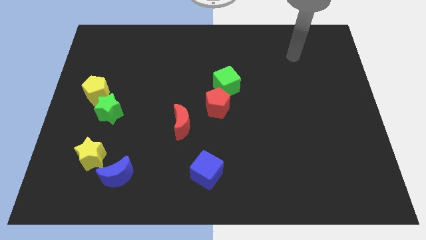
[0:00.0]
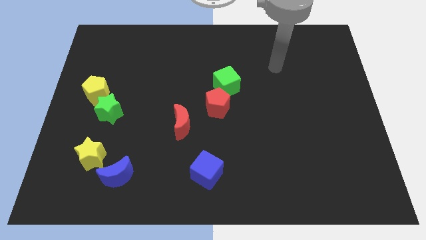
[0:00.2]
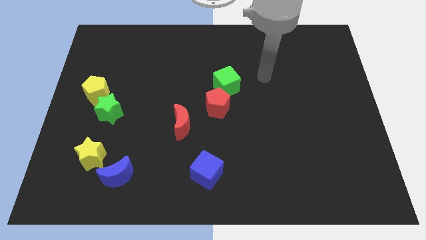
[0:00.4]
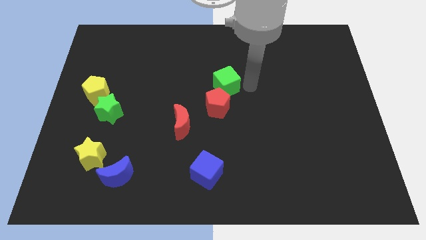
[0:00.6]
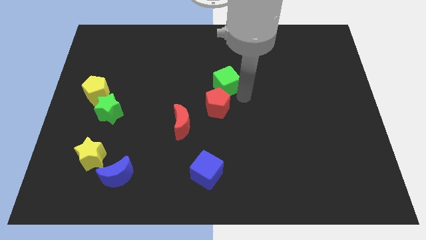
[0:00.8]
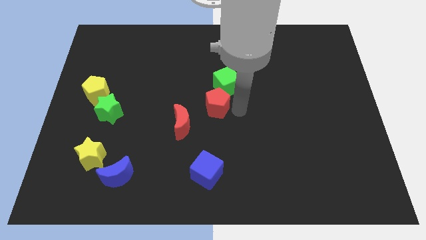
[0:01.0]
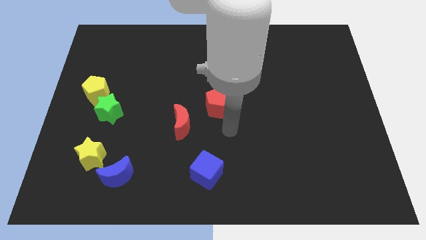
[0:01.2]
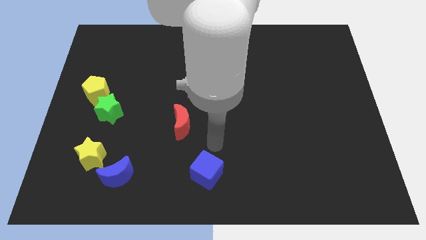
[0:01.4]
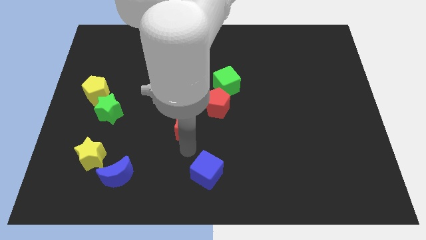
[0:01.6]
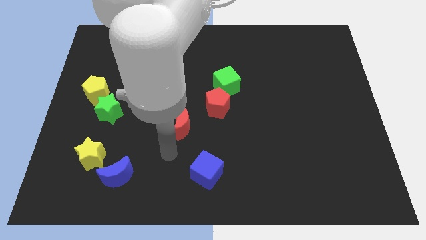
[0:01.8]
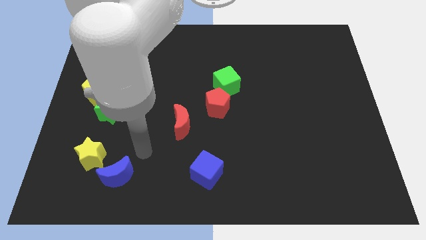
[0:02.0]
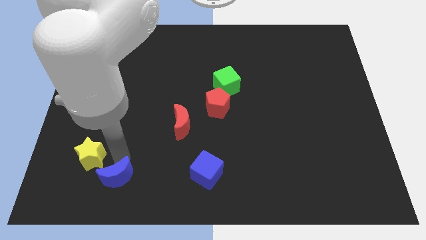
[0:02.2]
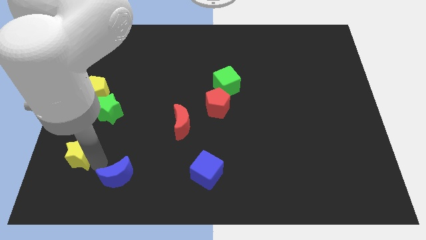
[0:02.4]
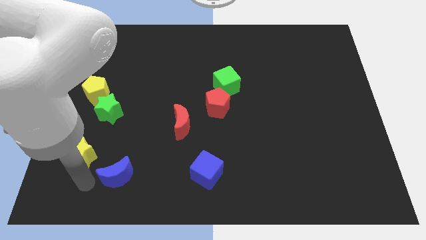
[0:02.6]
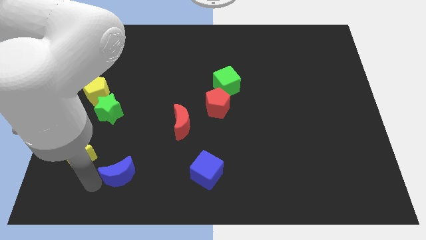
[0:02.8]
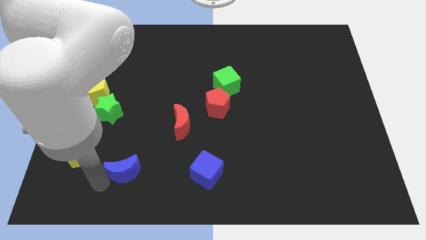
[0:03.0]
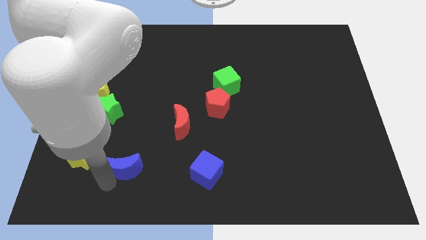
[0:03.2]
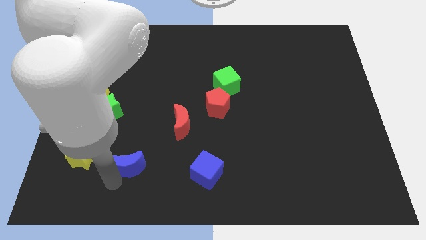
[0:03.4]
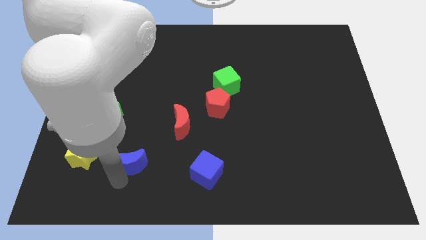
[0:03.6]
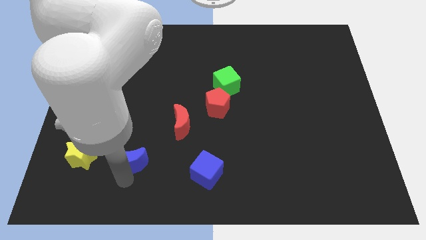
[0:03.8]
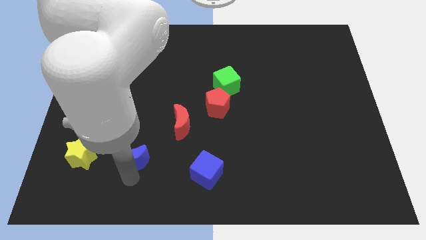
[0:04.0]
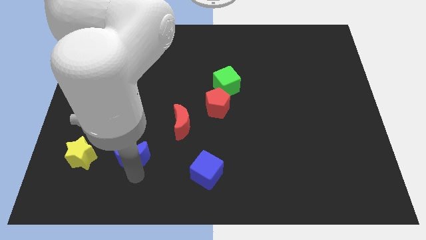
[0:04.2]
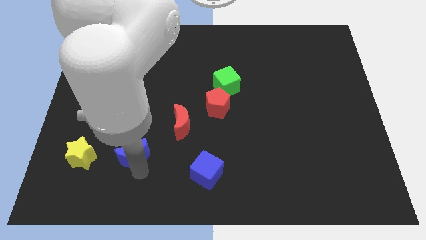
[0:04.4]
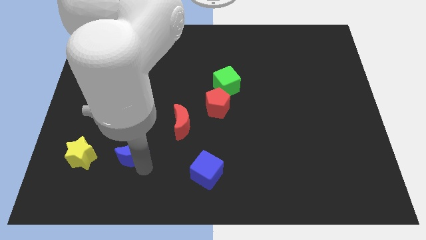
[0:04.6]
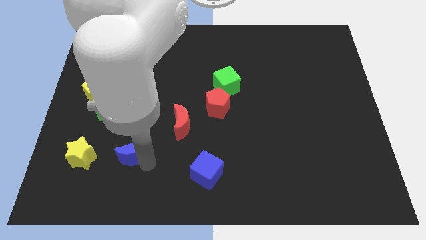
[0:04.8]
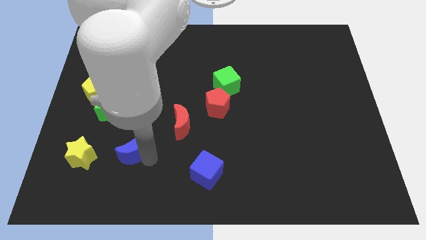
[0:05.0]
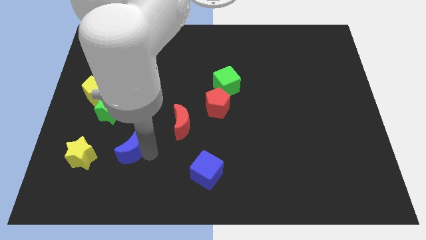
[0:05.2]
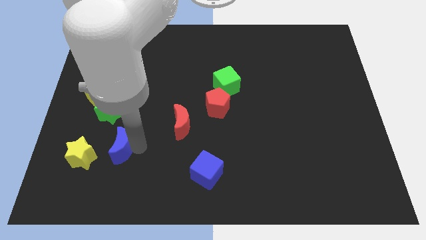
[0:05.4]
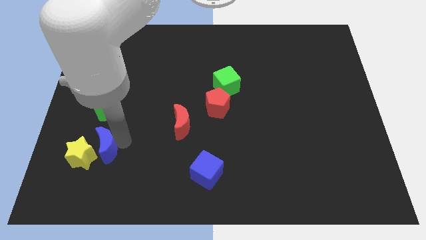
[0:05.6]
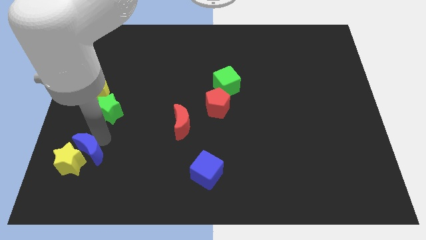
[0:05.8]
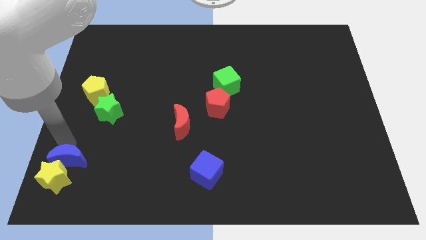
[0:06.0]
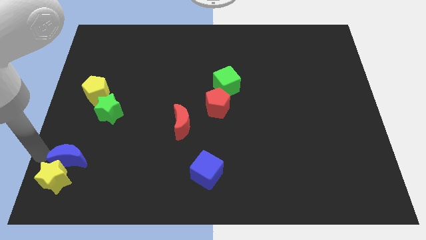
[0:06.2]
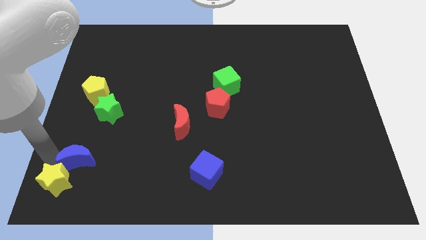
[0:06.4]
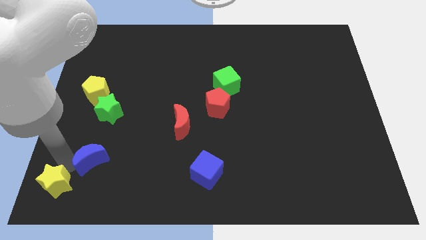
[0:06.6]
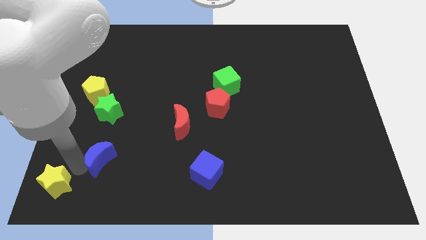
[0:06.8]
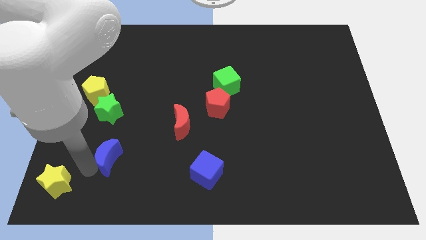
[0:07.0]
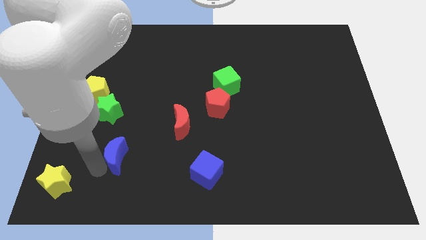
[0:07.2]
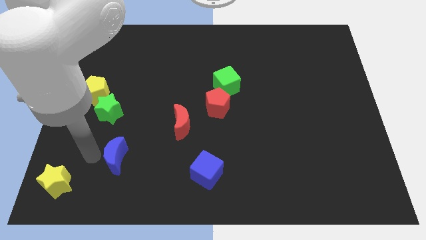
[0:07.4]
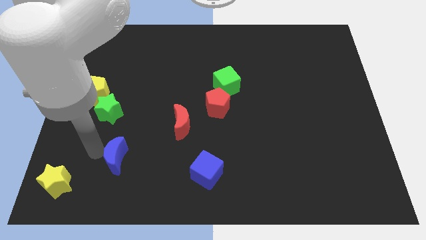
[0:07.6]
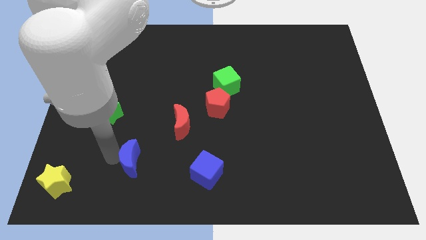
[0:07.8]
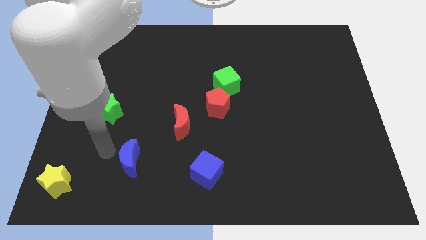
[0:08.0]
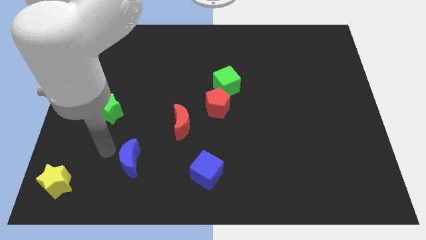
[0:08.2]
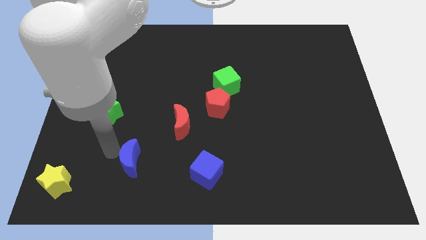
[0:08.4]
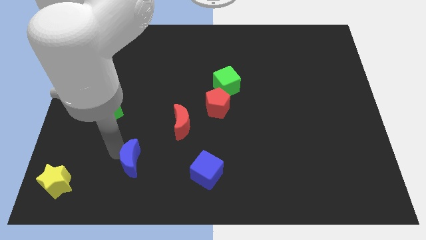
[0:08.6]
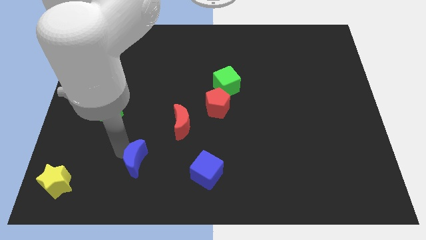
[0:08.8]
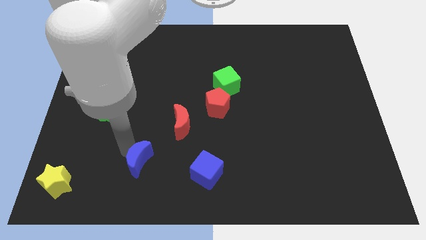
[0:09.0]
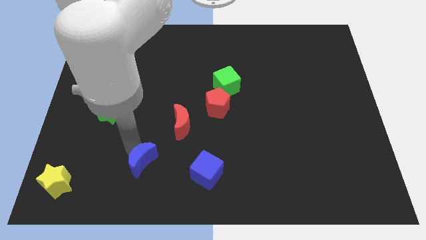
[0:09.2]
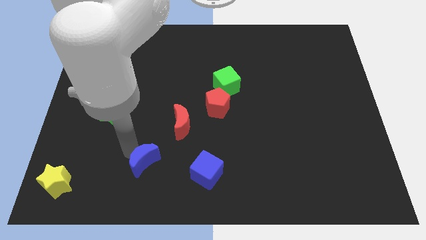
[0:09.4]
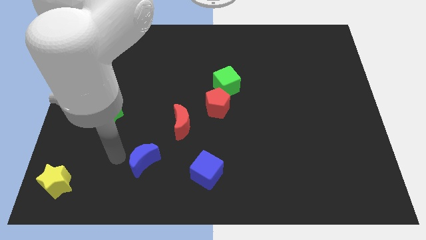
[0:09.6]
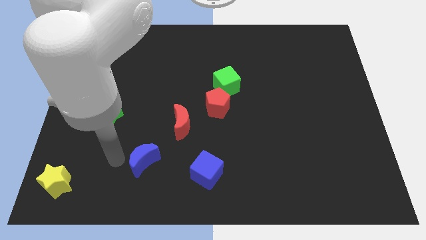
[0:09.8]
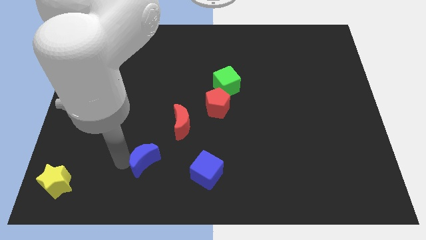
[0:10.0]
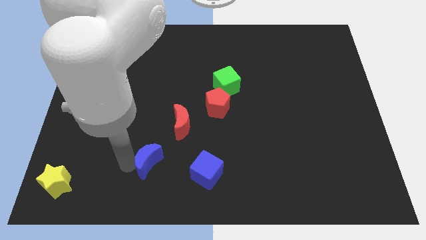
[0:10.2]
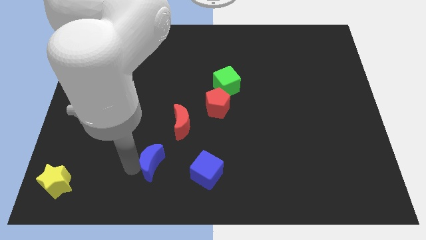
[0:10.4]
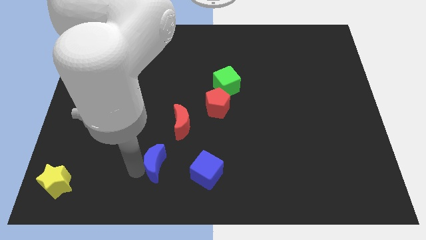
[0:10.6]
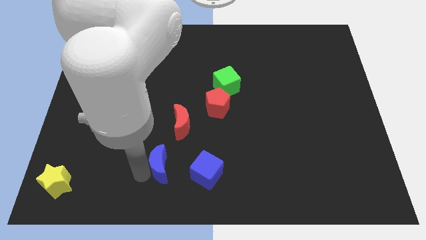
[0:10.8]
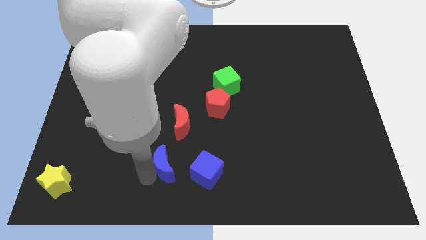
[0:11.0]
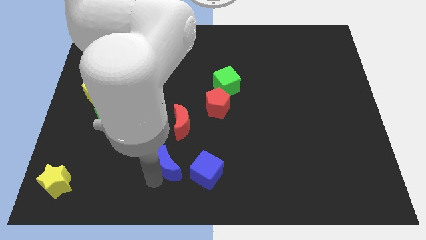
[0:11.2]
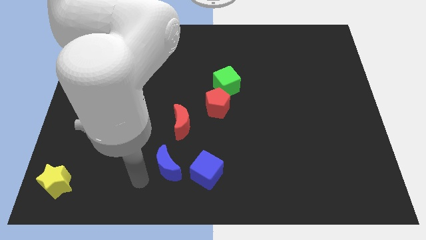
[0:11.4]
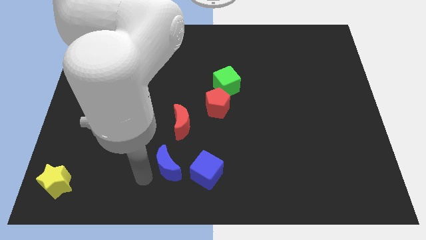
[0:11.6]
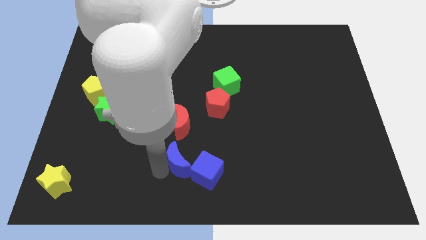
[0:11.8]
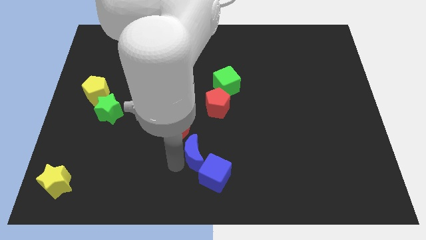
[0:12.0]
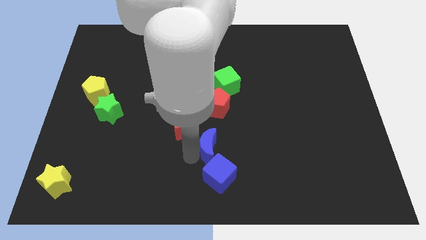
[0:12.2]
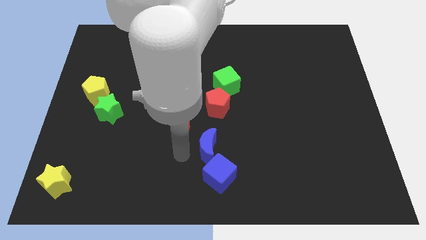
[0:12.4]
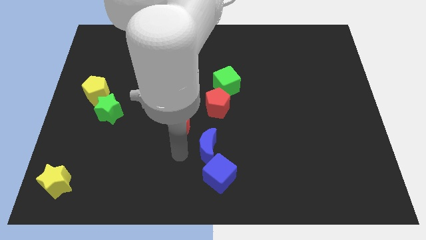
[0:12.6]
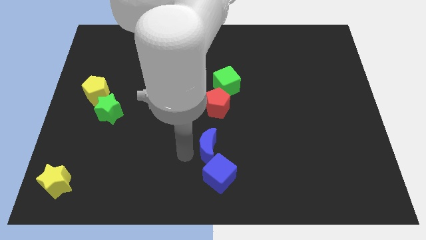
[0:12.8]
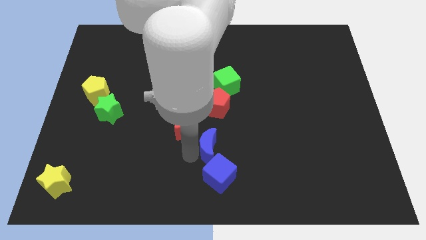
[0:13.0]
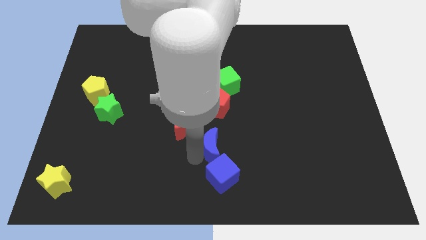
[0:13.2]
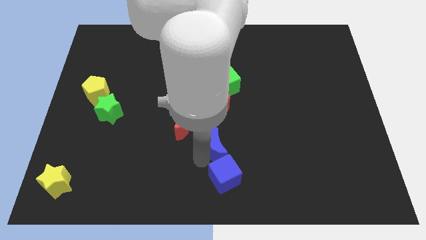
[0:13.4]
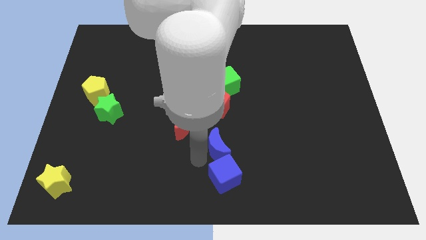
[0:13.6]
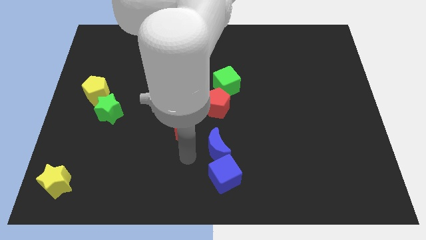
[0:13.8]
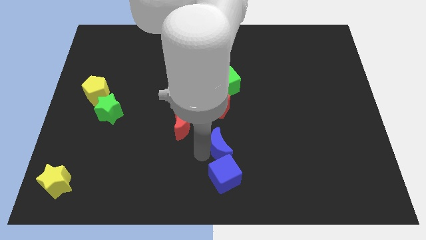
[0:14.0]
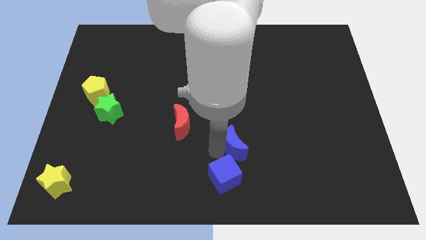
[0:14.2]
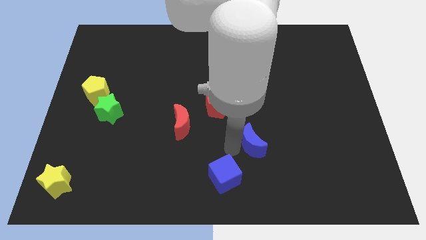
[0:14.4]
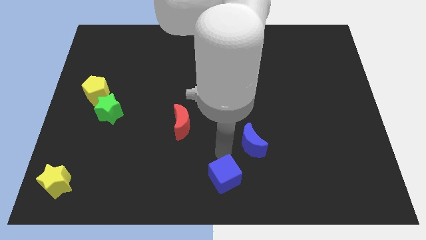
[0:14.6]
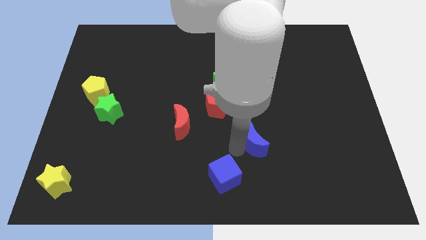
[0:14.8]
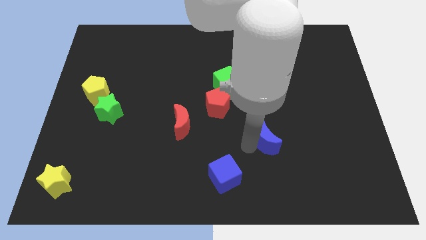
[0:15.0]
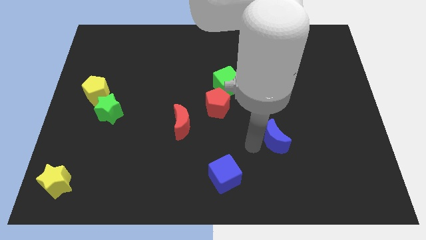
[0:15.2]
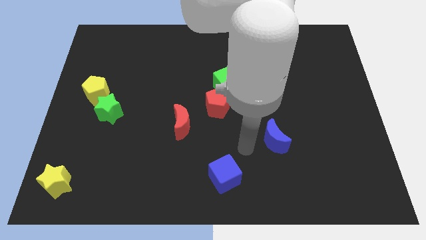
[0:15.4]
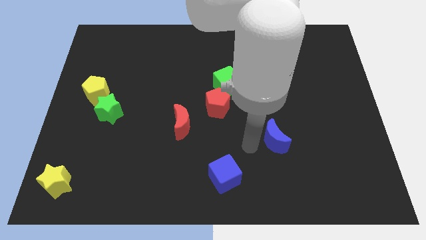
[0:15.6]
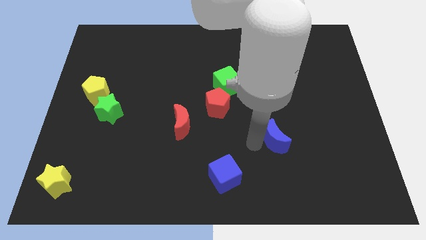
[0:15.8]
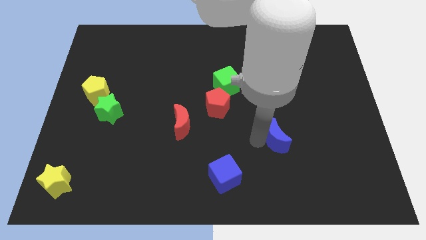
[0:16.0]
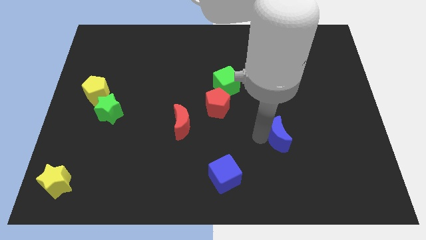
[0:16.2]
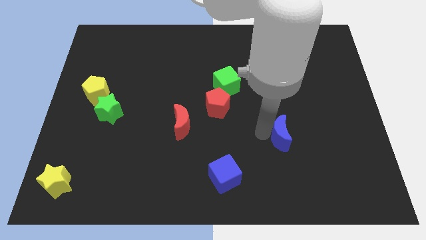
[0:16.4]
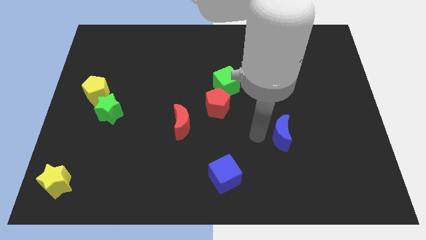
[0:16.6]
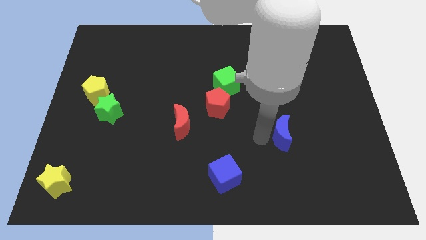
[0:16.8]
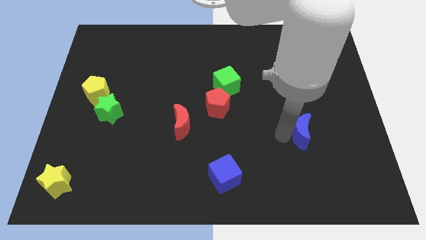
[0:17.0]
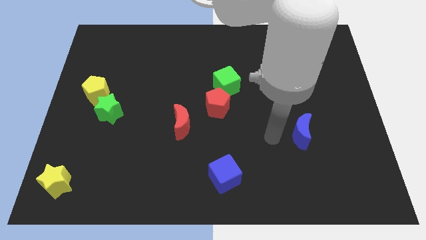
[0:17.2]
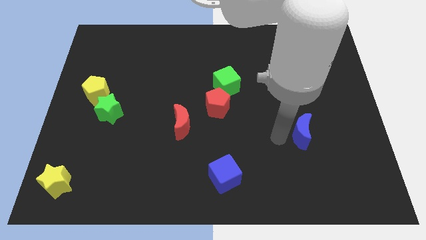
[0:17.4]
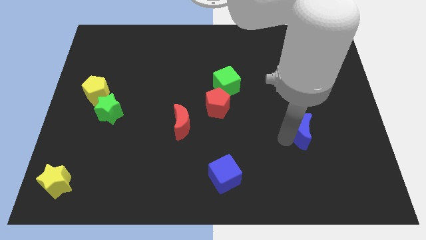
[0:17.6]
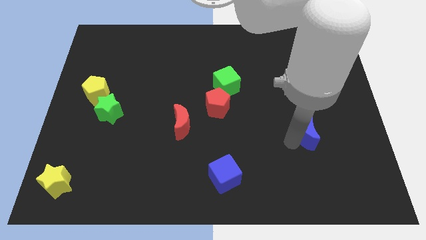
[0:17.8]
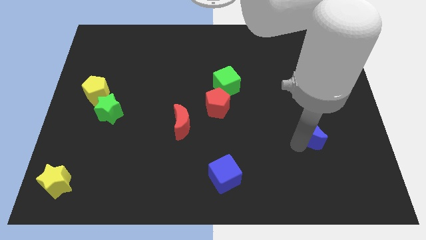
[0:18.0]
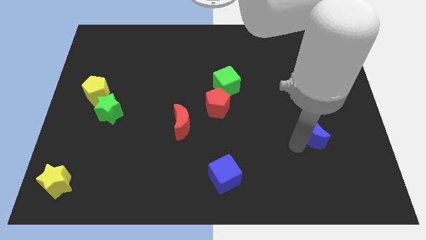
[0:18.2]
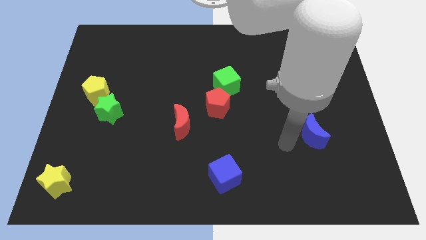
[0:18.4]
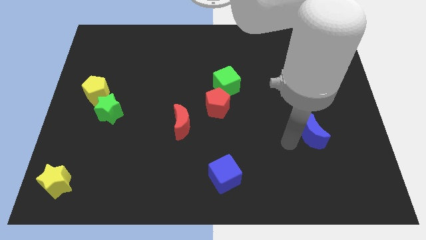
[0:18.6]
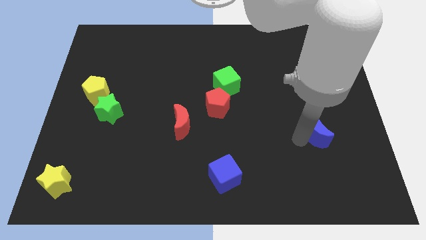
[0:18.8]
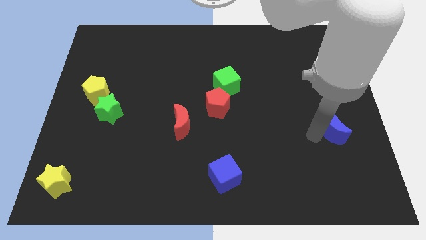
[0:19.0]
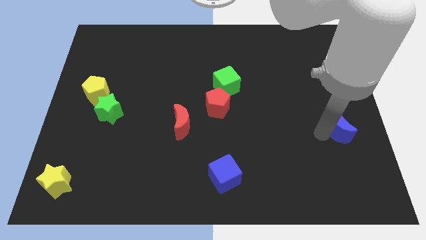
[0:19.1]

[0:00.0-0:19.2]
put the blue moon to the center right
